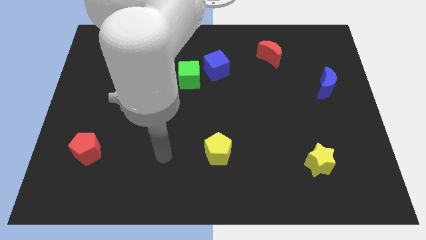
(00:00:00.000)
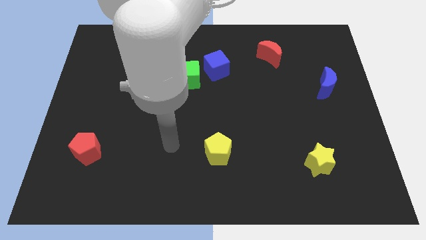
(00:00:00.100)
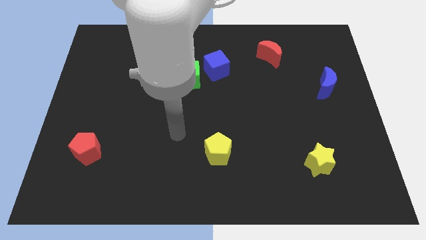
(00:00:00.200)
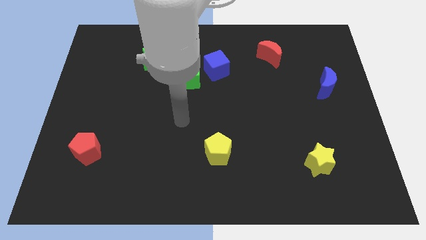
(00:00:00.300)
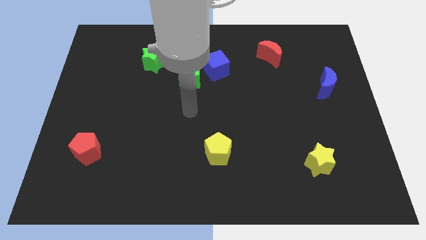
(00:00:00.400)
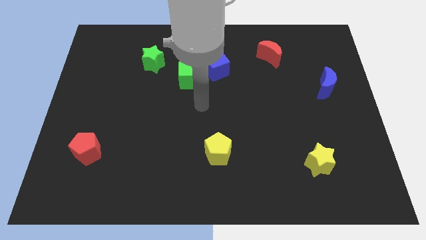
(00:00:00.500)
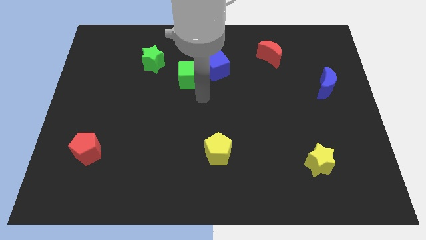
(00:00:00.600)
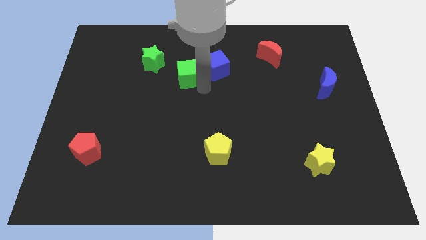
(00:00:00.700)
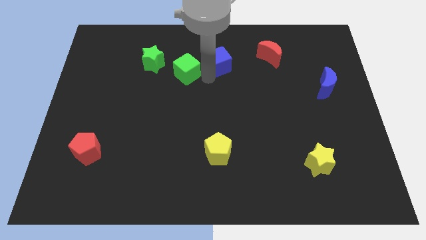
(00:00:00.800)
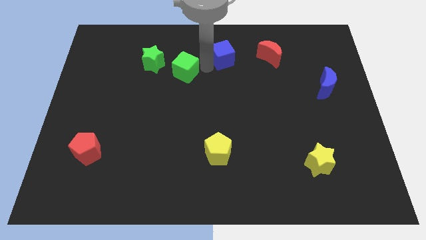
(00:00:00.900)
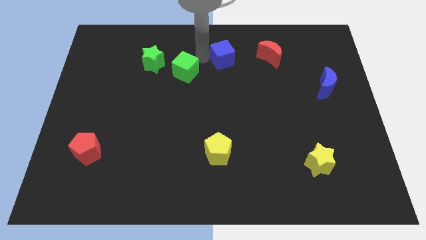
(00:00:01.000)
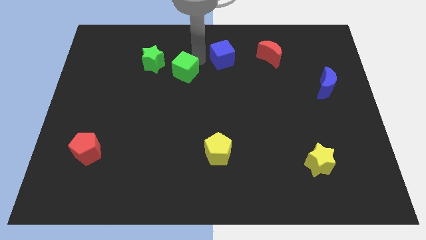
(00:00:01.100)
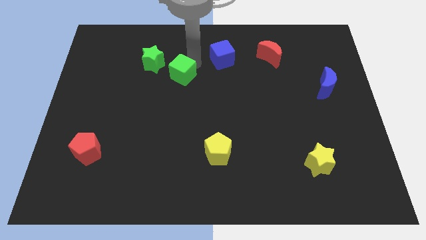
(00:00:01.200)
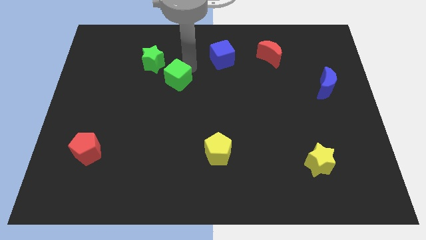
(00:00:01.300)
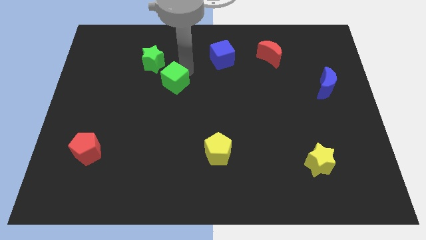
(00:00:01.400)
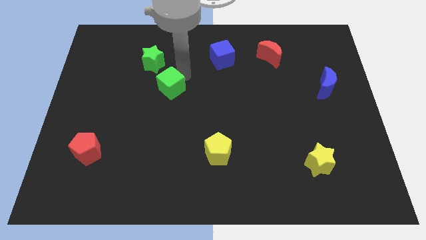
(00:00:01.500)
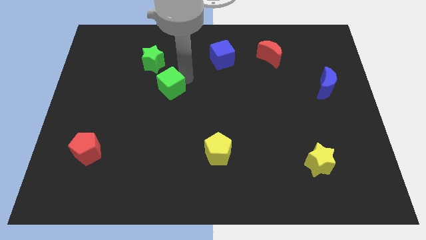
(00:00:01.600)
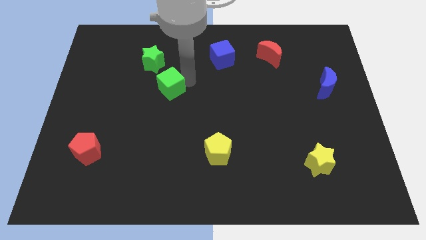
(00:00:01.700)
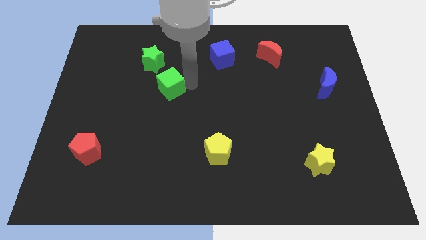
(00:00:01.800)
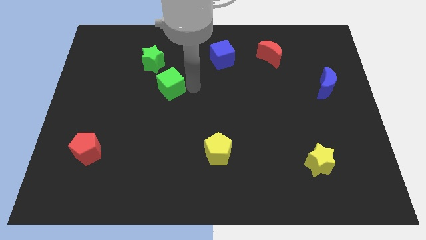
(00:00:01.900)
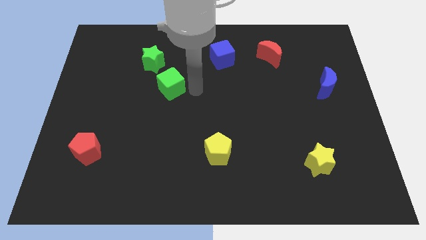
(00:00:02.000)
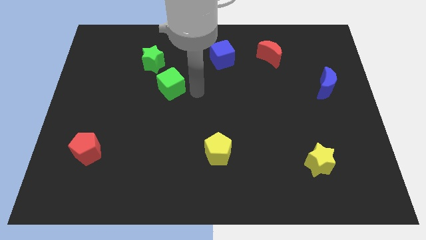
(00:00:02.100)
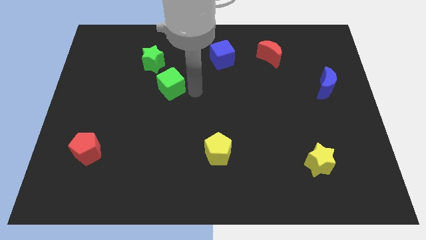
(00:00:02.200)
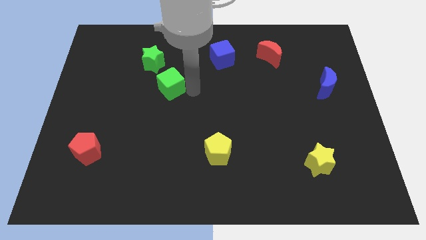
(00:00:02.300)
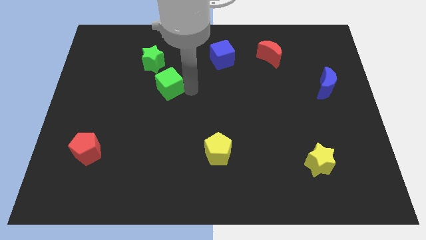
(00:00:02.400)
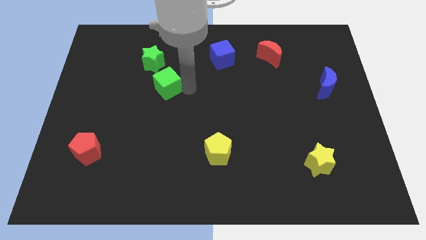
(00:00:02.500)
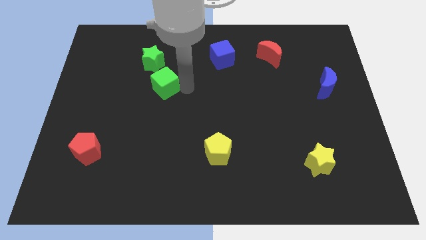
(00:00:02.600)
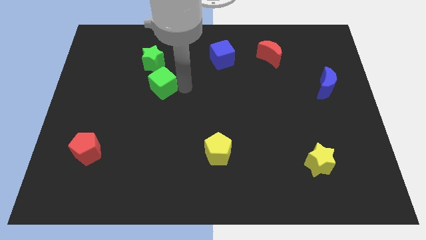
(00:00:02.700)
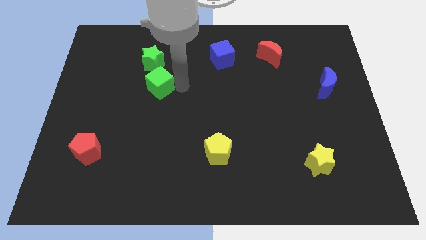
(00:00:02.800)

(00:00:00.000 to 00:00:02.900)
slightly slide the green cube to the left

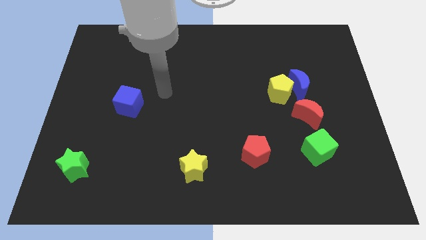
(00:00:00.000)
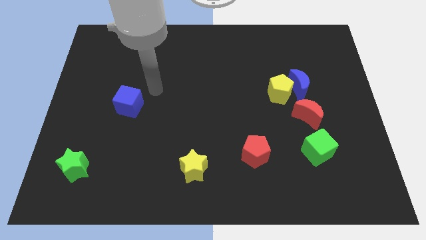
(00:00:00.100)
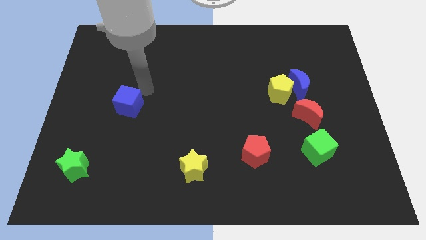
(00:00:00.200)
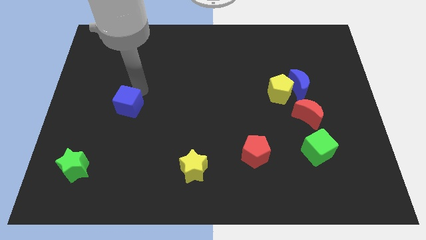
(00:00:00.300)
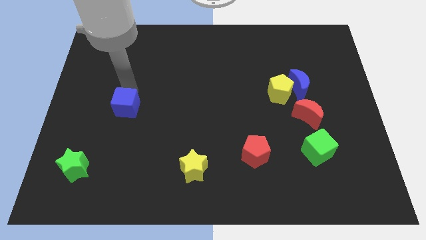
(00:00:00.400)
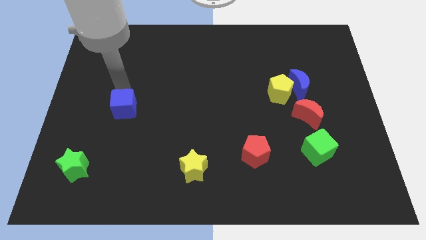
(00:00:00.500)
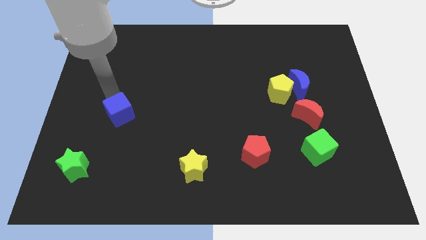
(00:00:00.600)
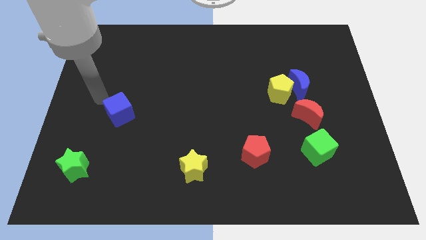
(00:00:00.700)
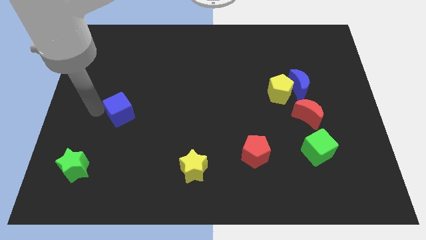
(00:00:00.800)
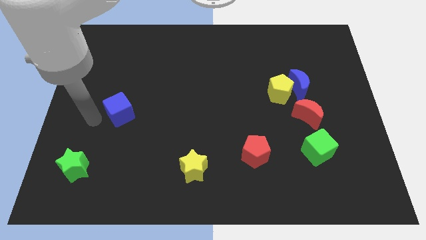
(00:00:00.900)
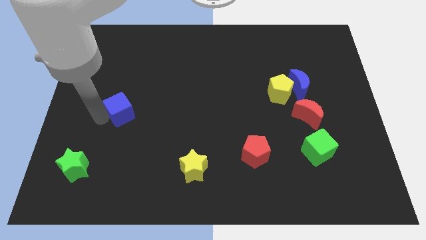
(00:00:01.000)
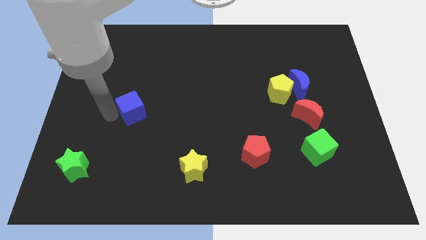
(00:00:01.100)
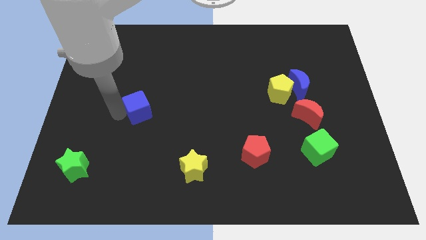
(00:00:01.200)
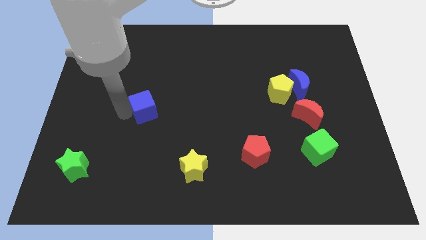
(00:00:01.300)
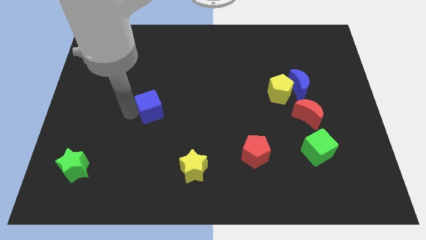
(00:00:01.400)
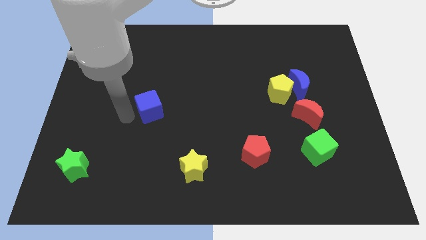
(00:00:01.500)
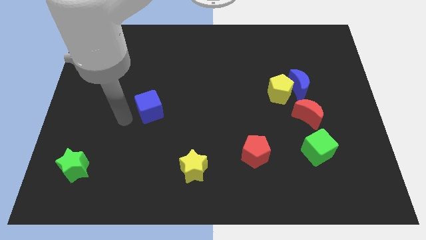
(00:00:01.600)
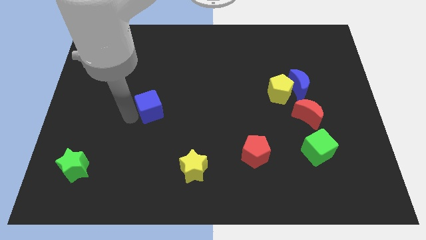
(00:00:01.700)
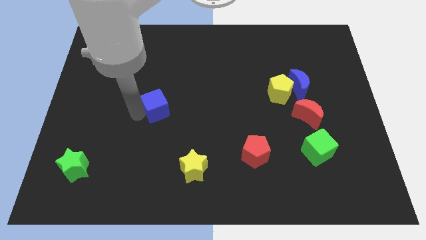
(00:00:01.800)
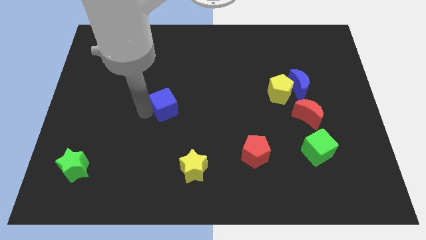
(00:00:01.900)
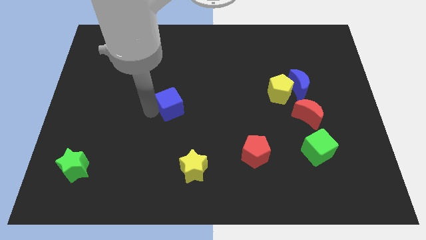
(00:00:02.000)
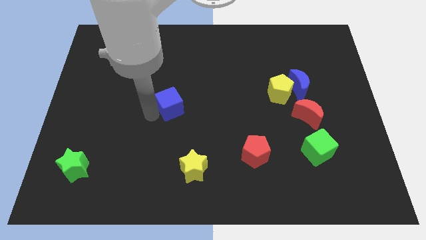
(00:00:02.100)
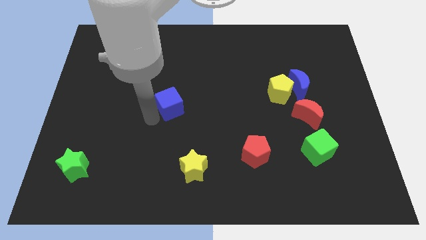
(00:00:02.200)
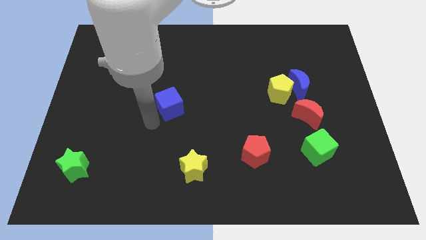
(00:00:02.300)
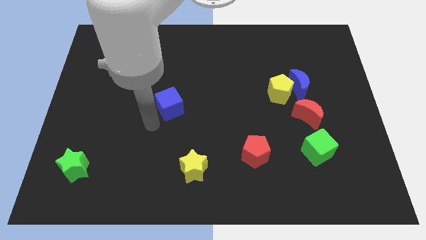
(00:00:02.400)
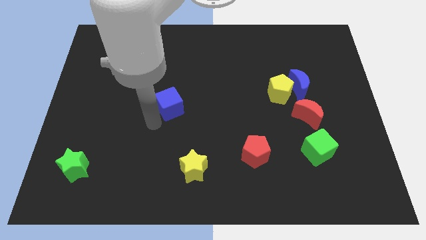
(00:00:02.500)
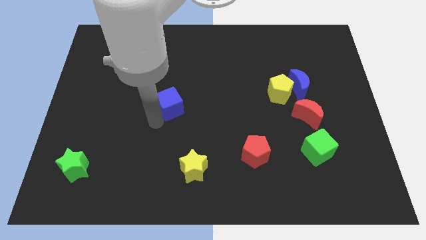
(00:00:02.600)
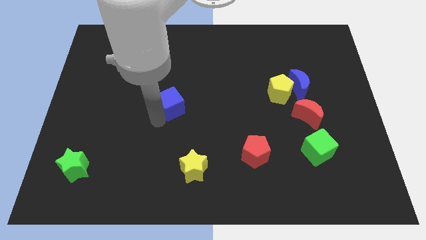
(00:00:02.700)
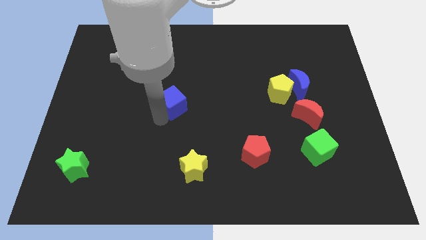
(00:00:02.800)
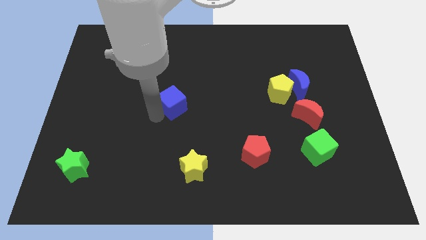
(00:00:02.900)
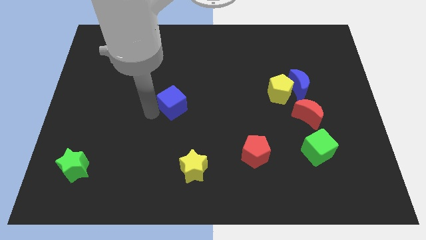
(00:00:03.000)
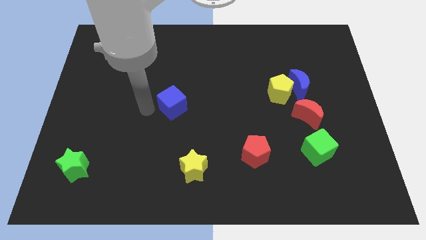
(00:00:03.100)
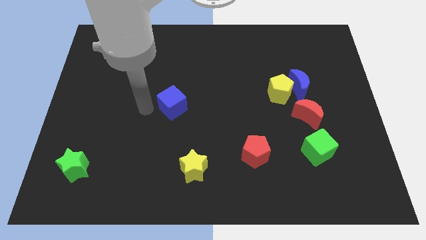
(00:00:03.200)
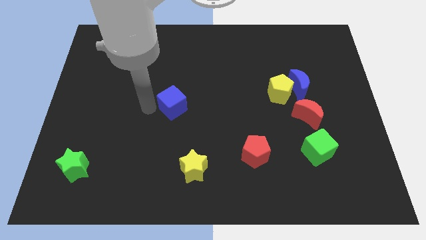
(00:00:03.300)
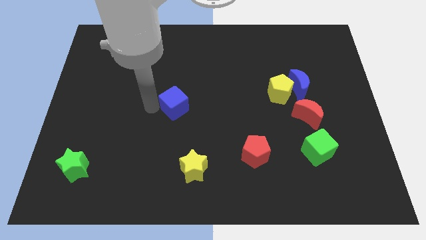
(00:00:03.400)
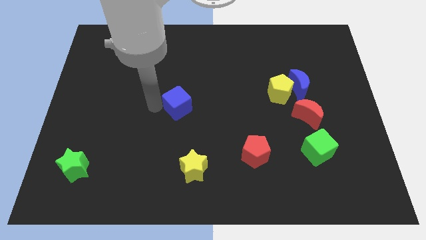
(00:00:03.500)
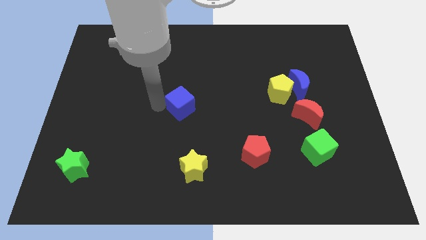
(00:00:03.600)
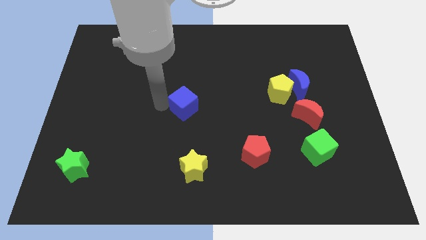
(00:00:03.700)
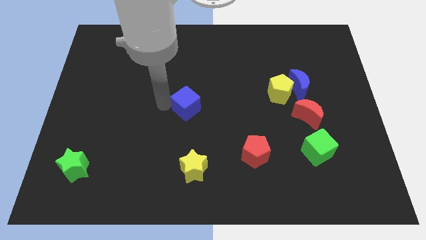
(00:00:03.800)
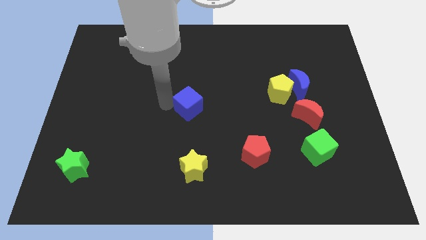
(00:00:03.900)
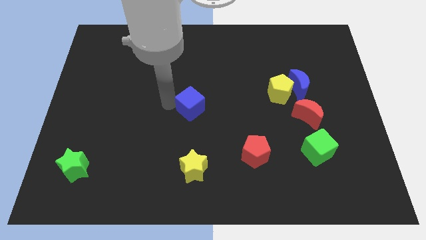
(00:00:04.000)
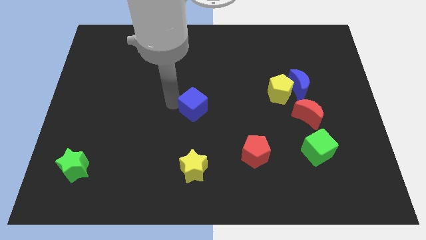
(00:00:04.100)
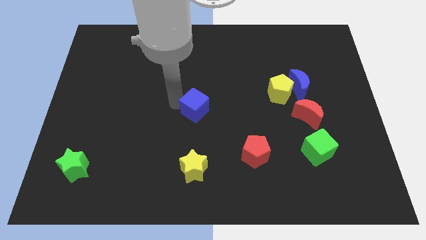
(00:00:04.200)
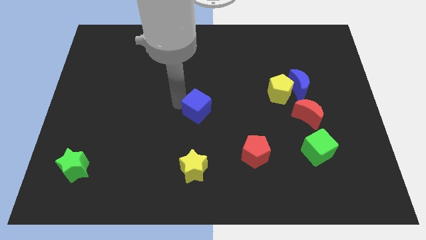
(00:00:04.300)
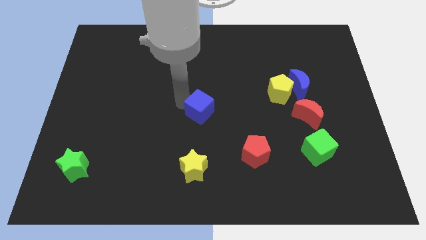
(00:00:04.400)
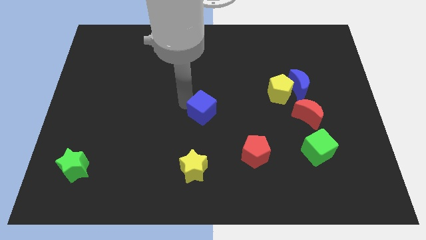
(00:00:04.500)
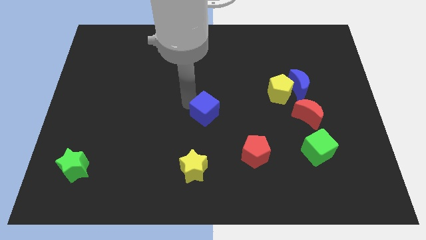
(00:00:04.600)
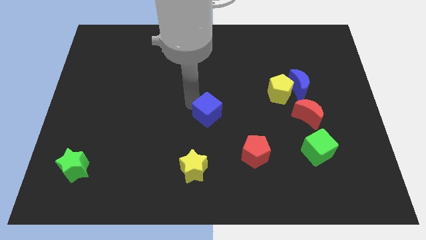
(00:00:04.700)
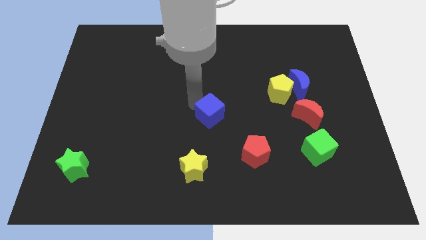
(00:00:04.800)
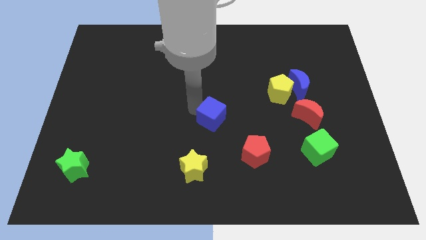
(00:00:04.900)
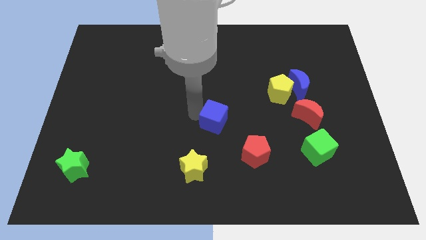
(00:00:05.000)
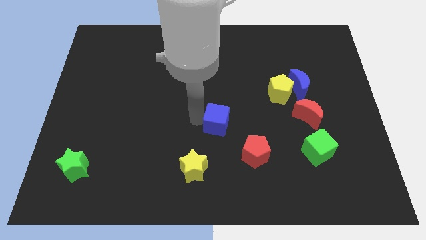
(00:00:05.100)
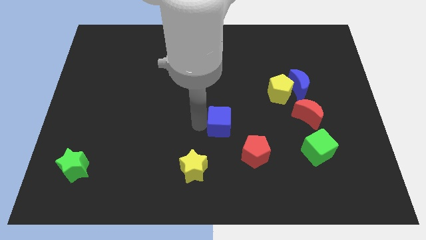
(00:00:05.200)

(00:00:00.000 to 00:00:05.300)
push the blue cube right
